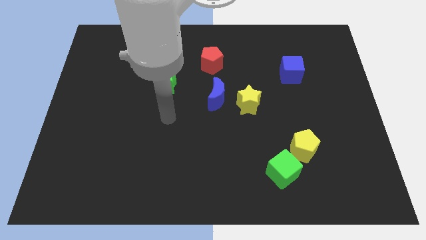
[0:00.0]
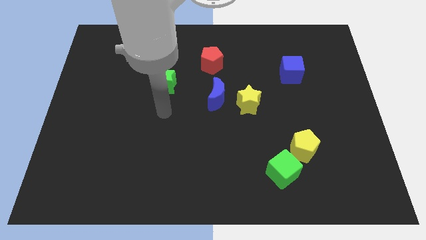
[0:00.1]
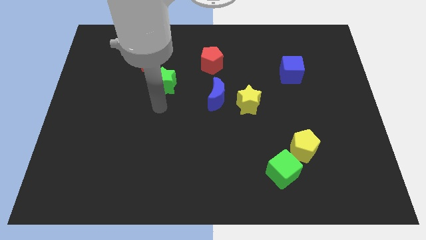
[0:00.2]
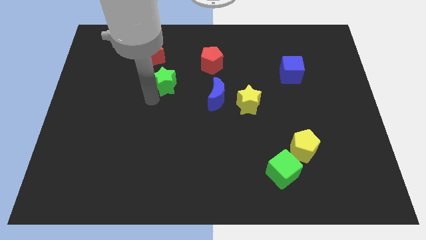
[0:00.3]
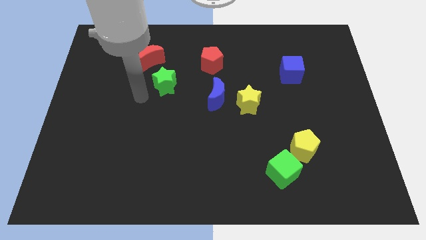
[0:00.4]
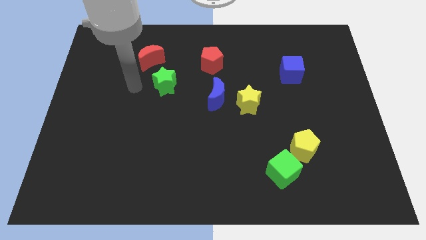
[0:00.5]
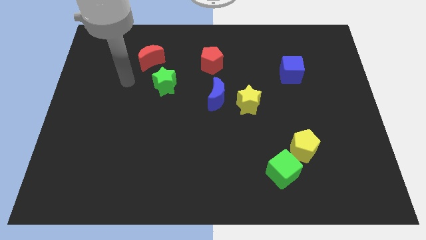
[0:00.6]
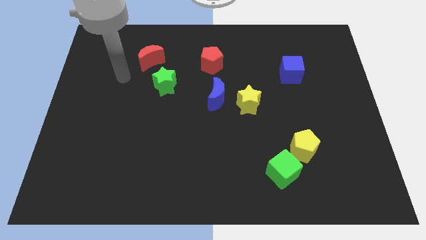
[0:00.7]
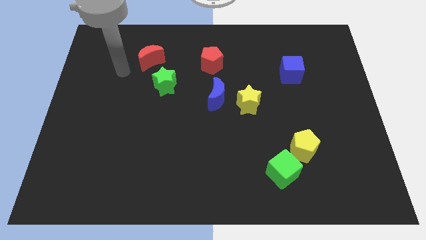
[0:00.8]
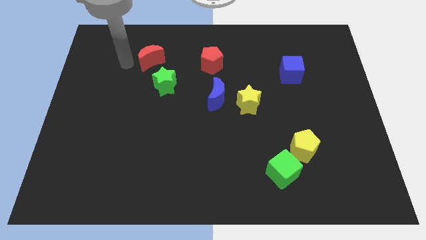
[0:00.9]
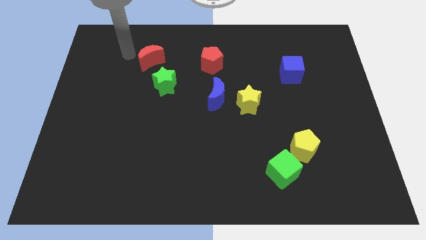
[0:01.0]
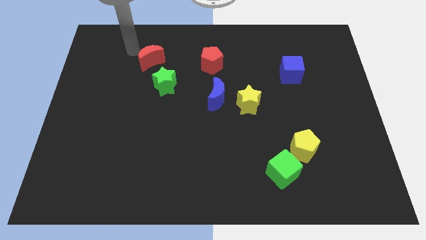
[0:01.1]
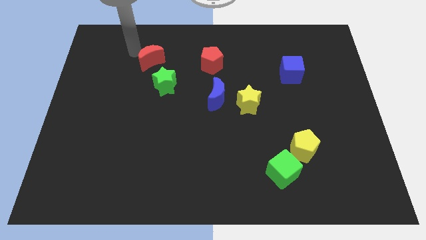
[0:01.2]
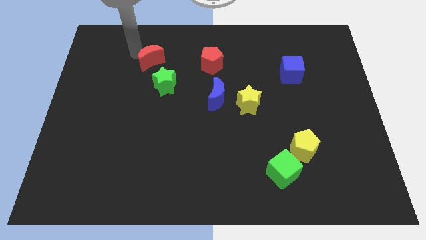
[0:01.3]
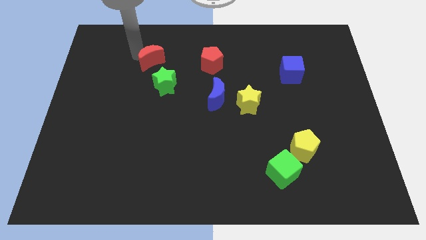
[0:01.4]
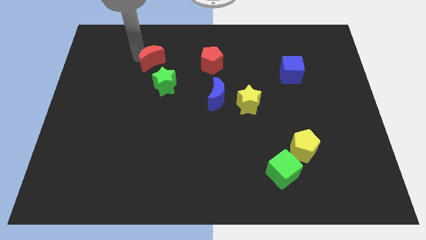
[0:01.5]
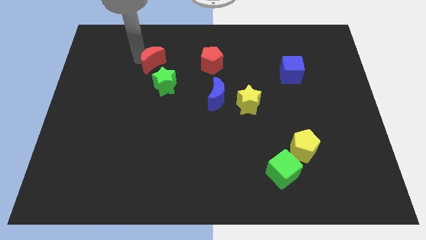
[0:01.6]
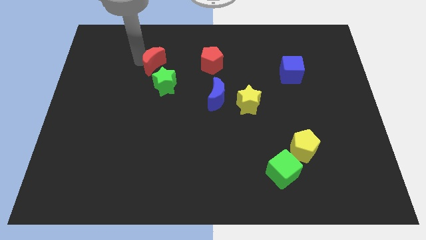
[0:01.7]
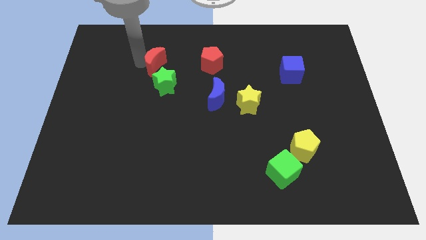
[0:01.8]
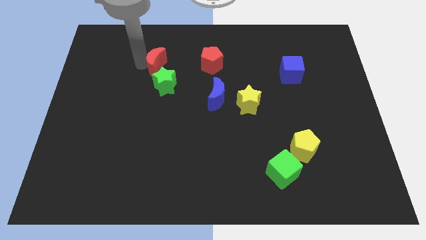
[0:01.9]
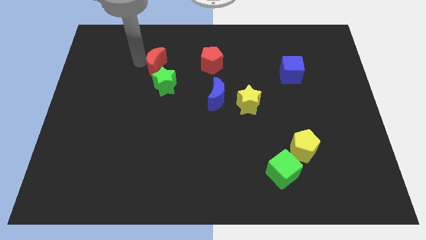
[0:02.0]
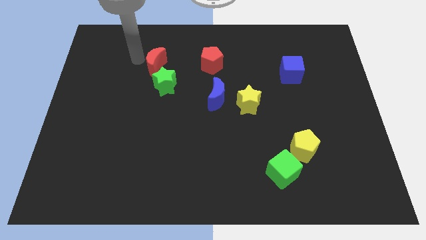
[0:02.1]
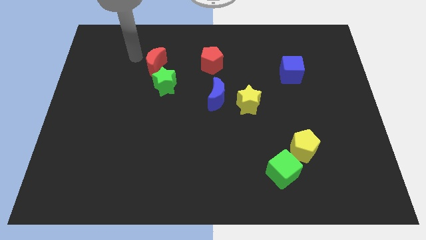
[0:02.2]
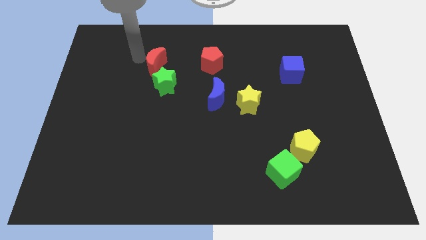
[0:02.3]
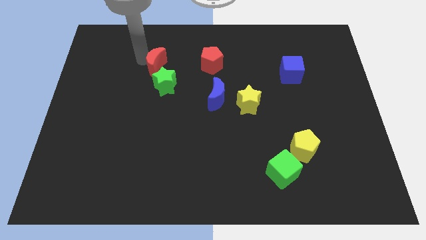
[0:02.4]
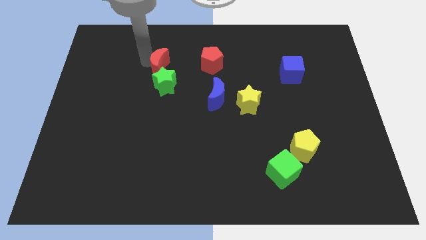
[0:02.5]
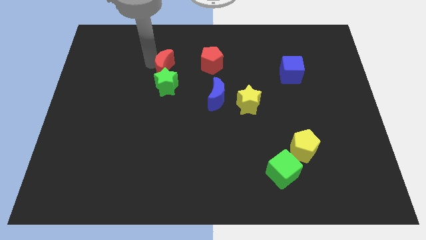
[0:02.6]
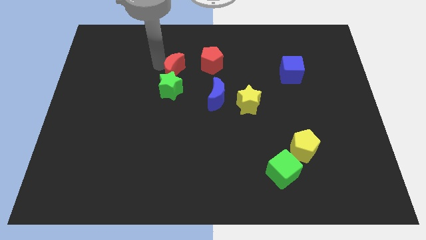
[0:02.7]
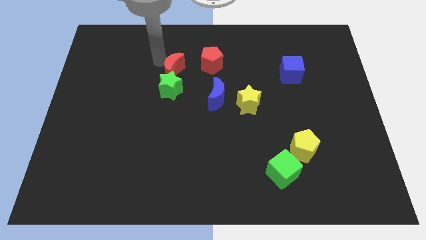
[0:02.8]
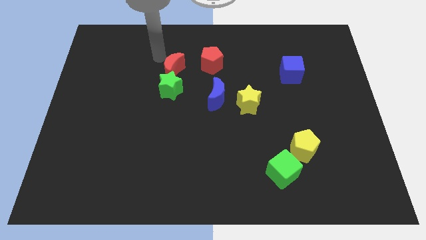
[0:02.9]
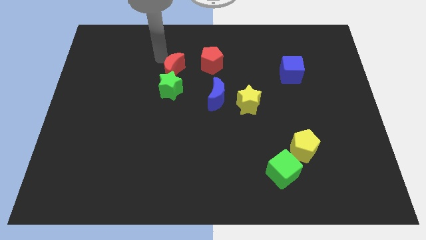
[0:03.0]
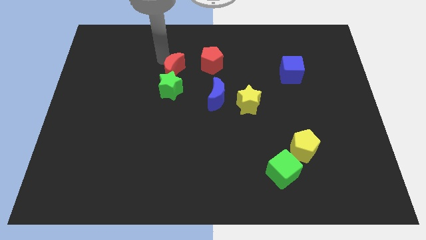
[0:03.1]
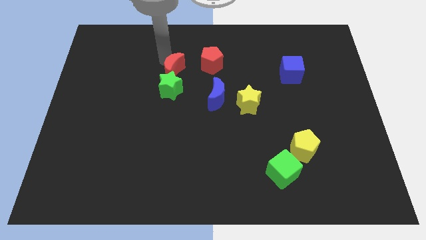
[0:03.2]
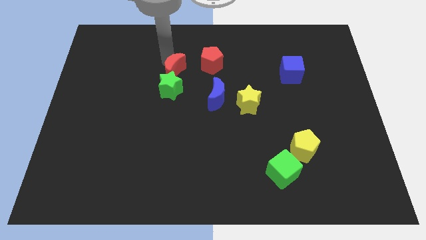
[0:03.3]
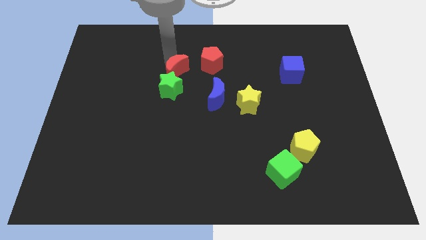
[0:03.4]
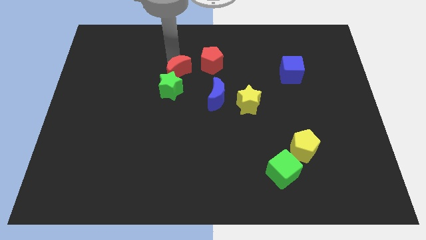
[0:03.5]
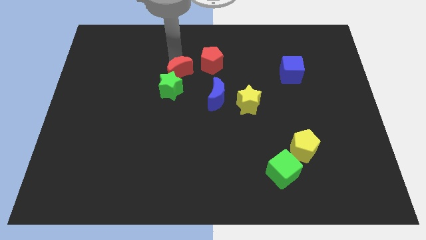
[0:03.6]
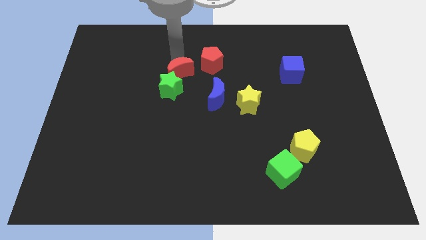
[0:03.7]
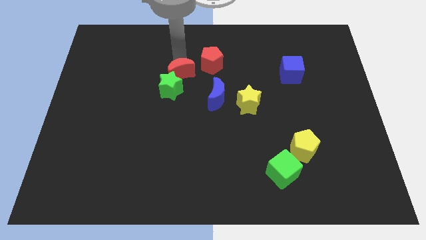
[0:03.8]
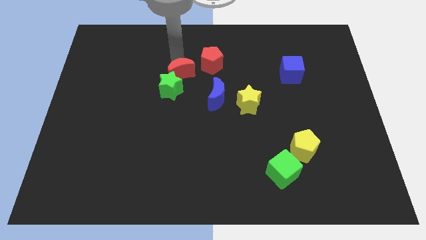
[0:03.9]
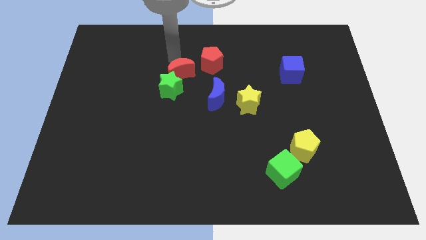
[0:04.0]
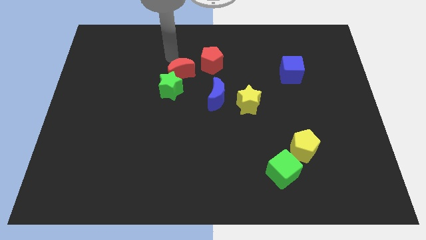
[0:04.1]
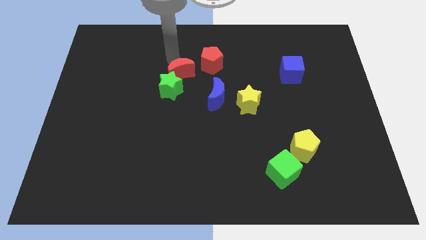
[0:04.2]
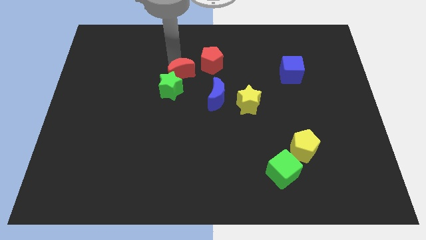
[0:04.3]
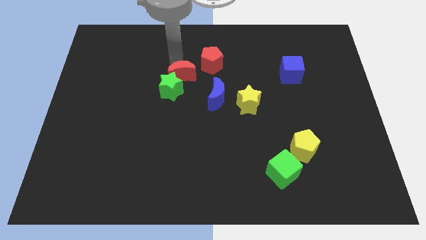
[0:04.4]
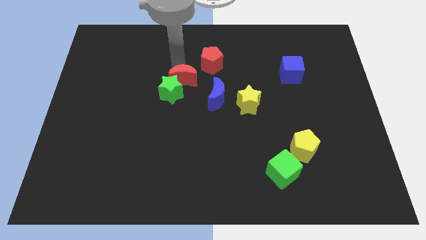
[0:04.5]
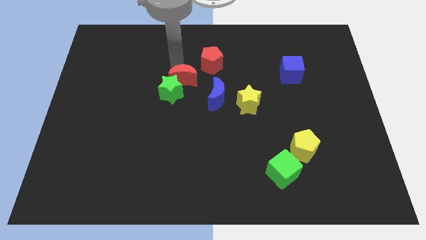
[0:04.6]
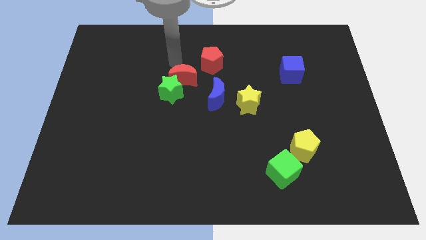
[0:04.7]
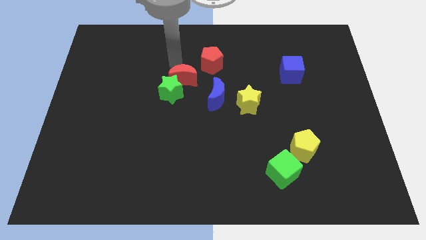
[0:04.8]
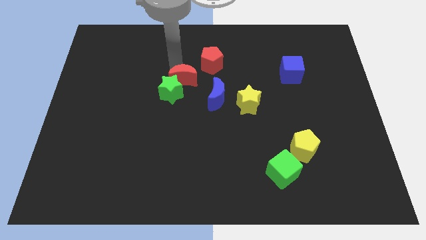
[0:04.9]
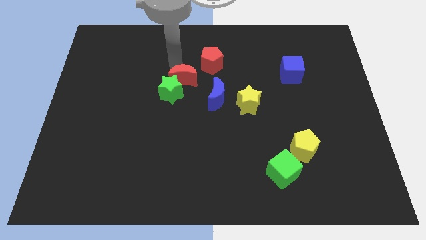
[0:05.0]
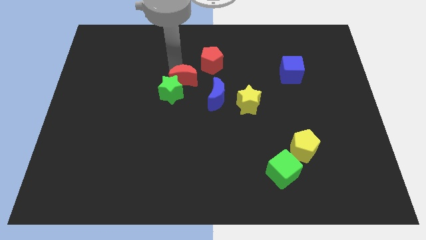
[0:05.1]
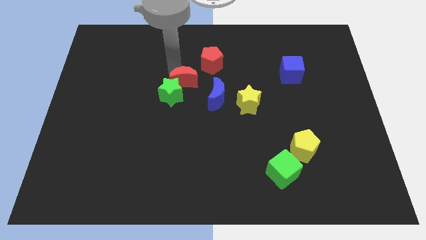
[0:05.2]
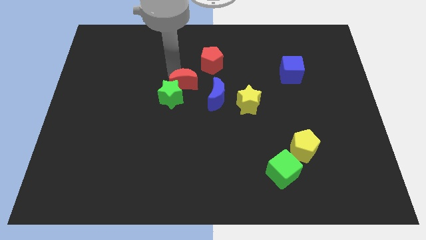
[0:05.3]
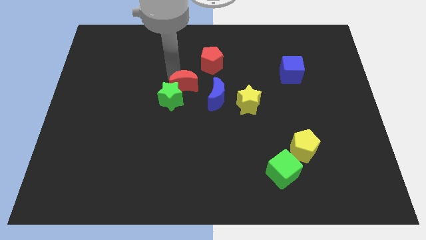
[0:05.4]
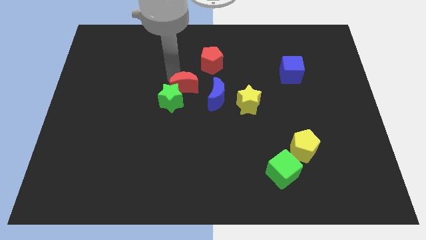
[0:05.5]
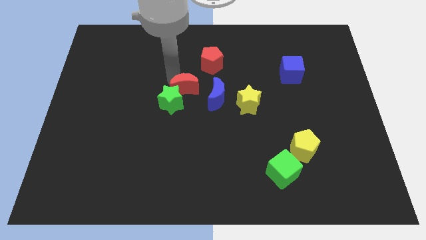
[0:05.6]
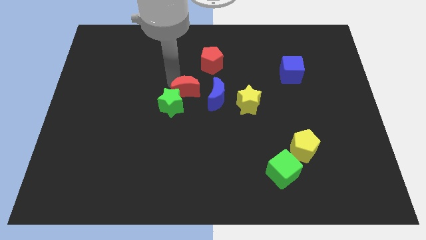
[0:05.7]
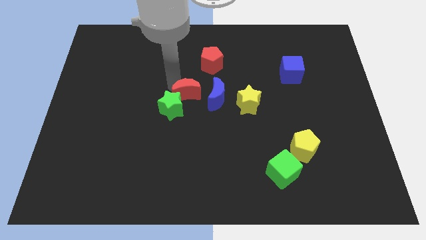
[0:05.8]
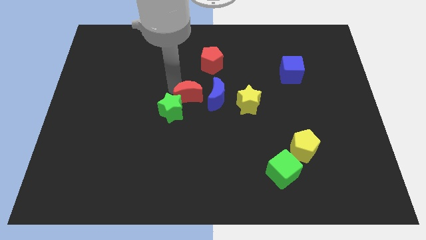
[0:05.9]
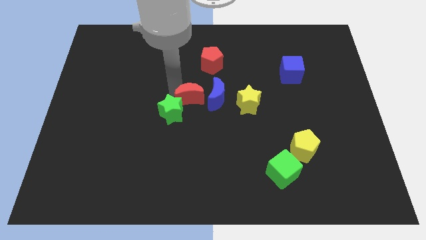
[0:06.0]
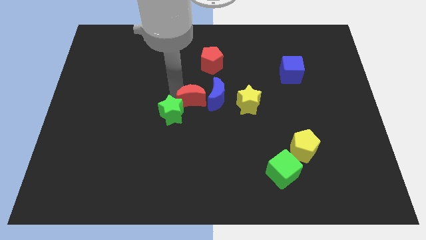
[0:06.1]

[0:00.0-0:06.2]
move the red moon to the bottom side of the red pentagon

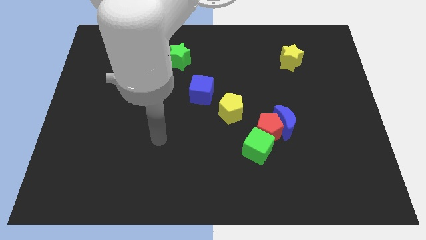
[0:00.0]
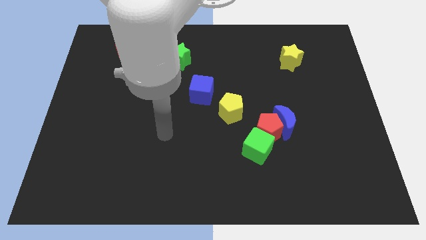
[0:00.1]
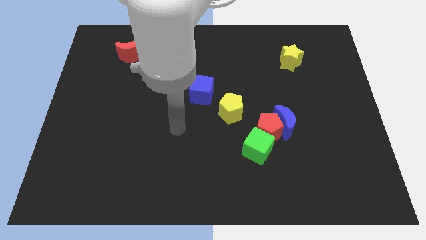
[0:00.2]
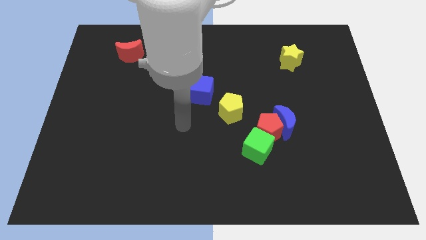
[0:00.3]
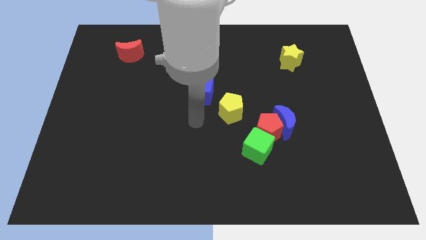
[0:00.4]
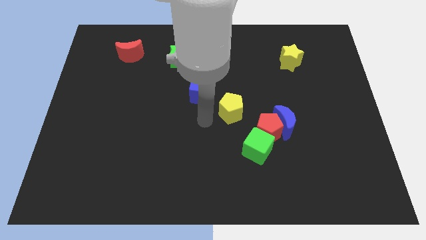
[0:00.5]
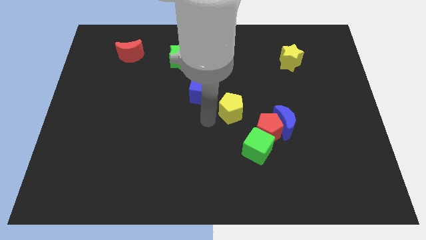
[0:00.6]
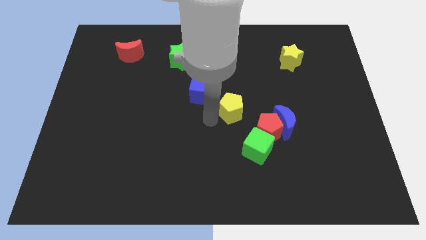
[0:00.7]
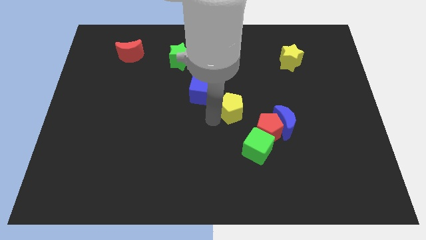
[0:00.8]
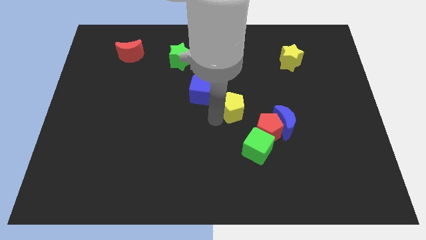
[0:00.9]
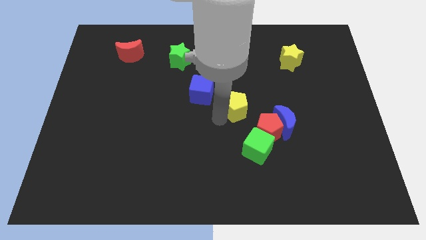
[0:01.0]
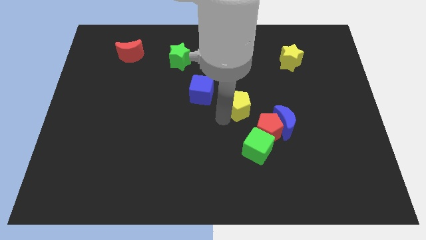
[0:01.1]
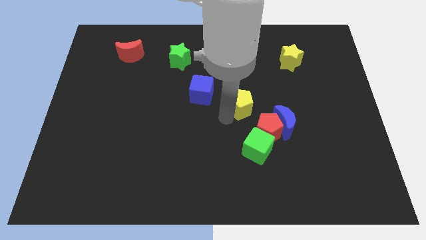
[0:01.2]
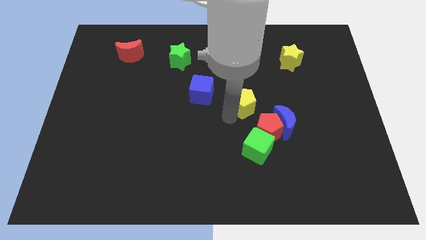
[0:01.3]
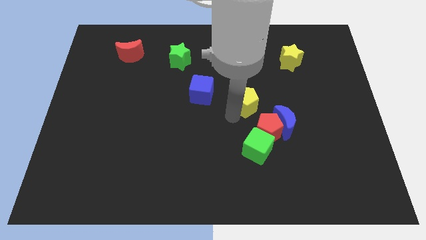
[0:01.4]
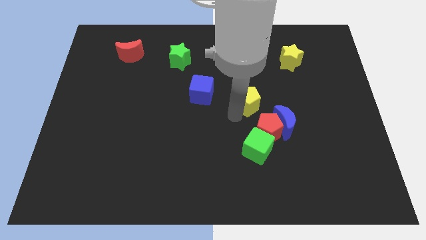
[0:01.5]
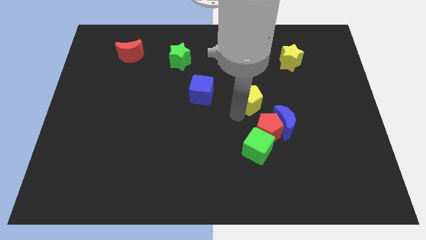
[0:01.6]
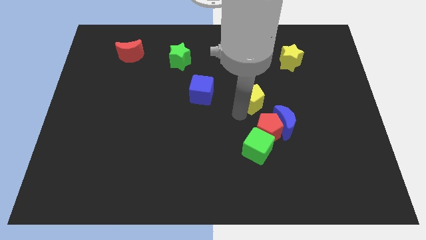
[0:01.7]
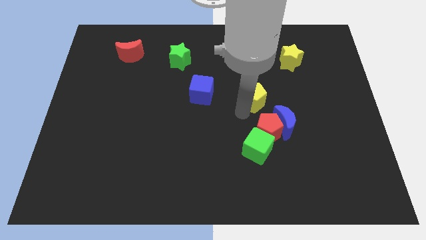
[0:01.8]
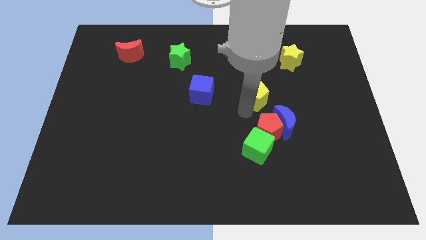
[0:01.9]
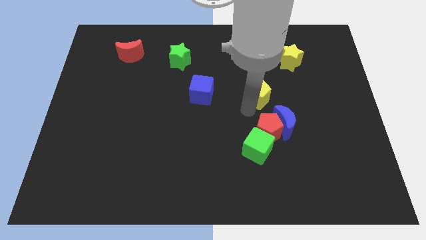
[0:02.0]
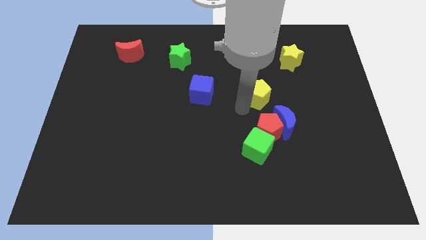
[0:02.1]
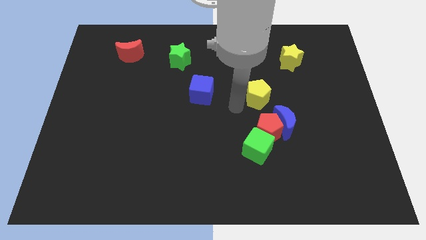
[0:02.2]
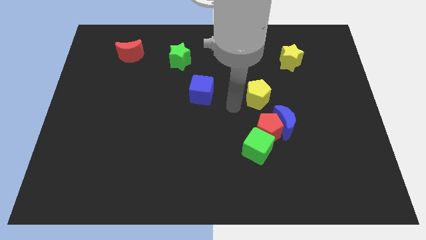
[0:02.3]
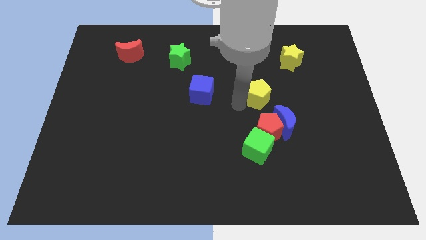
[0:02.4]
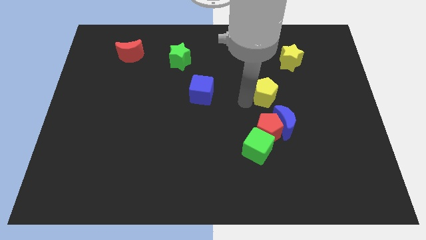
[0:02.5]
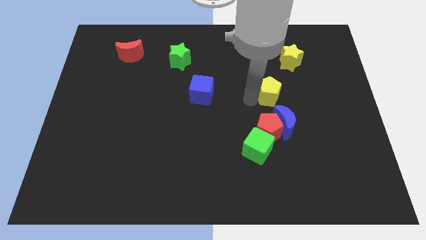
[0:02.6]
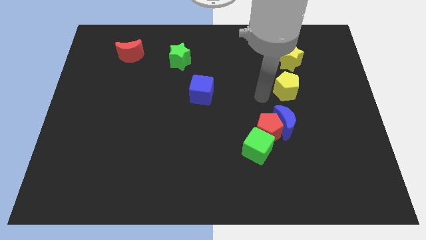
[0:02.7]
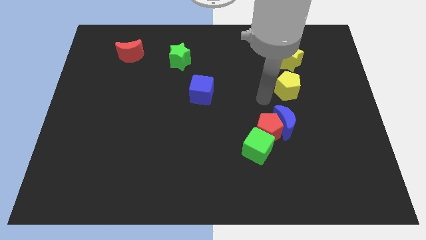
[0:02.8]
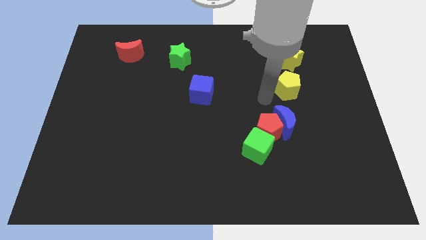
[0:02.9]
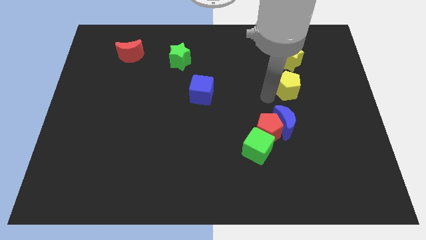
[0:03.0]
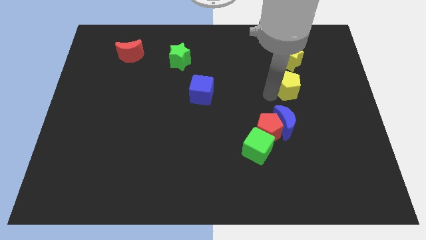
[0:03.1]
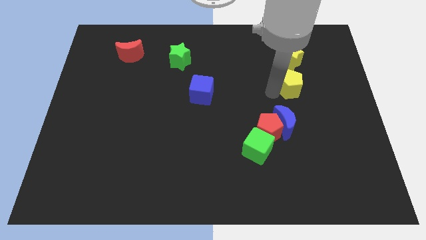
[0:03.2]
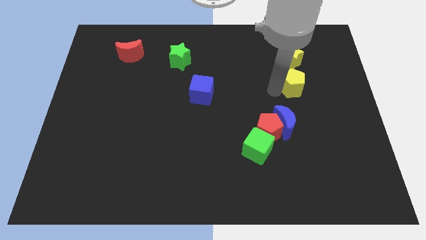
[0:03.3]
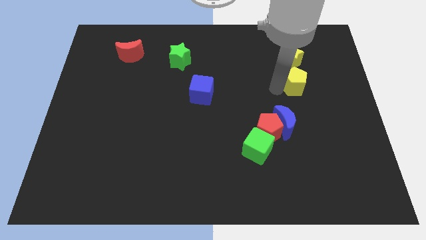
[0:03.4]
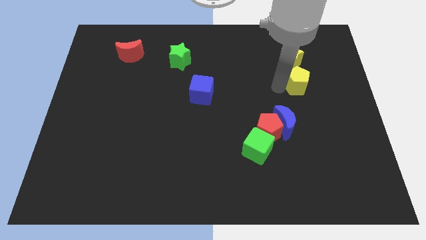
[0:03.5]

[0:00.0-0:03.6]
move the yellow pentagon to the bottom right of the yellow star
